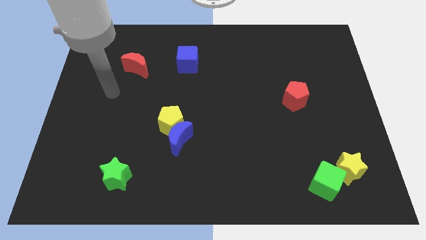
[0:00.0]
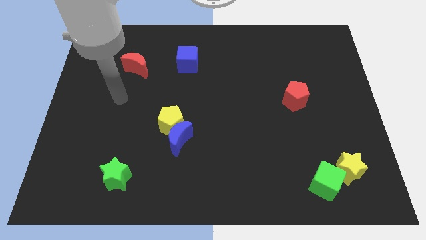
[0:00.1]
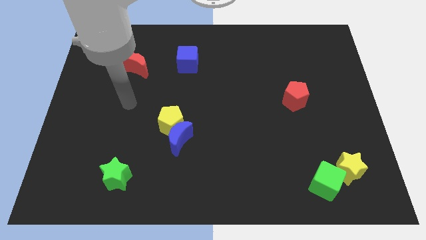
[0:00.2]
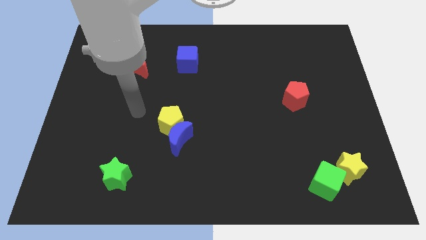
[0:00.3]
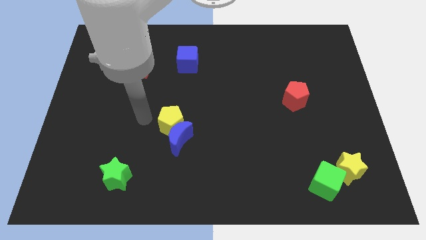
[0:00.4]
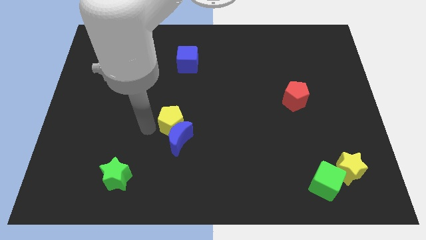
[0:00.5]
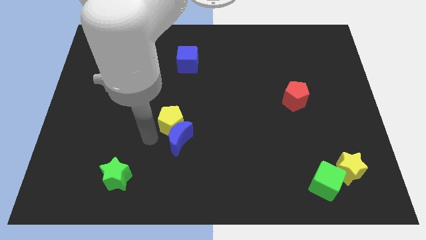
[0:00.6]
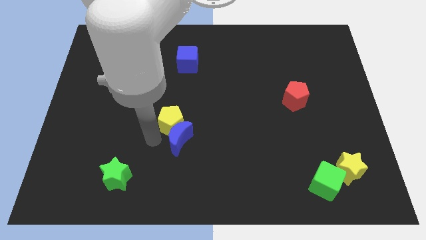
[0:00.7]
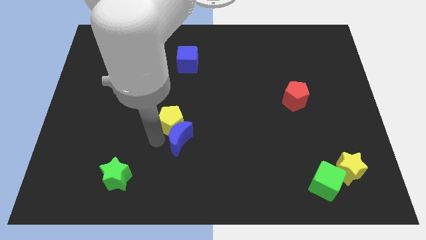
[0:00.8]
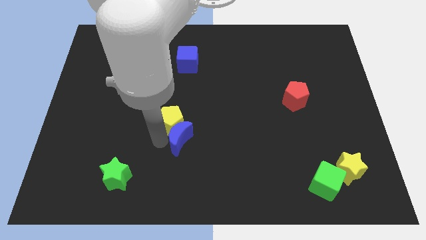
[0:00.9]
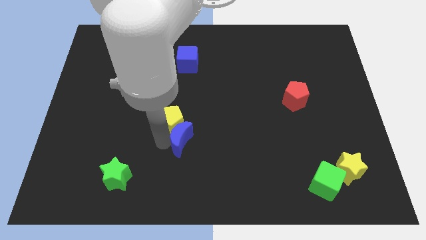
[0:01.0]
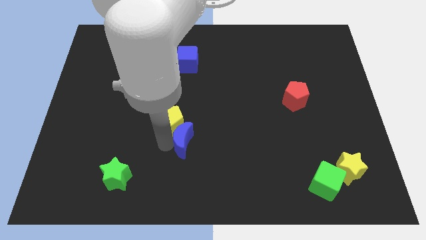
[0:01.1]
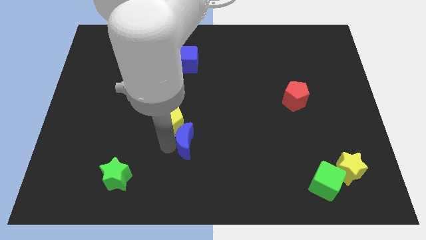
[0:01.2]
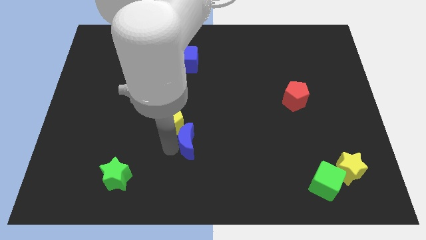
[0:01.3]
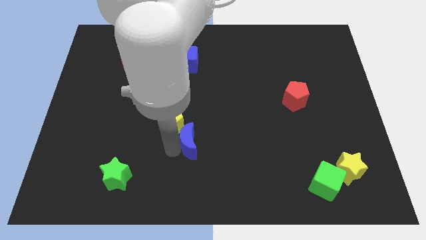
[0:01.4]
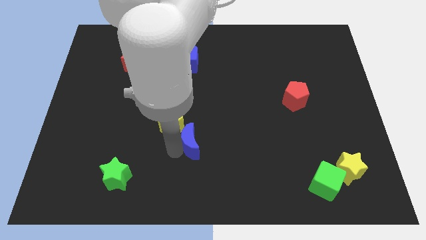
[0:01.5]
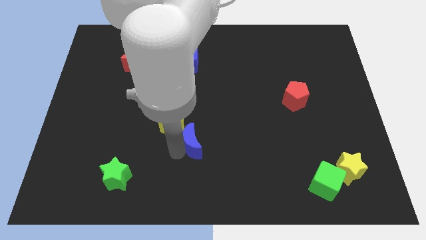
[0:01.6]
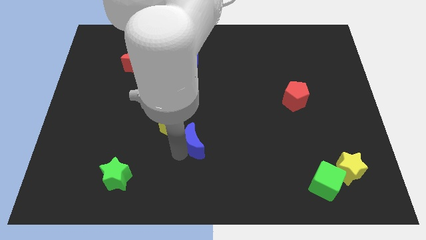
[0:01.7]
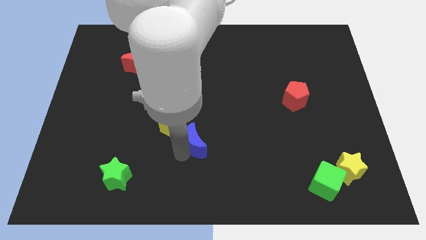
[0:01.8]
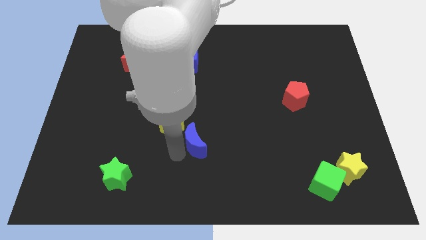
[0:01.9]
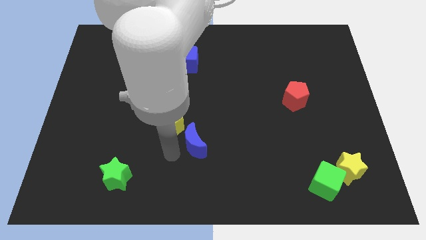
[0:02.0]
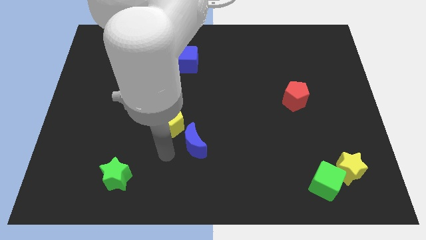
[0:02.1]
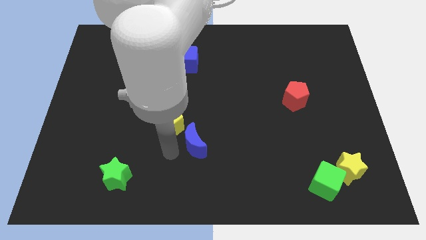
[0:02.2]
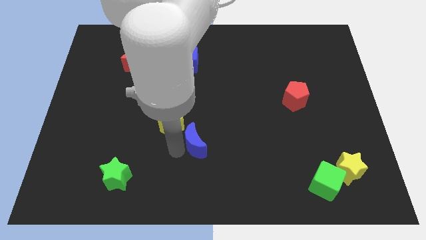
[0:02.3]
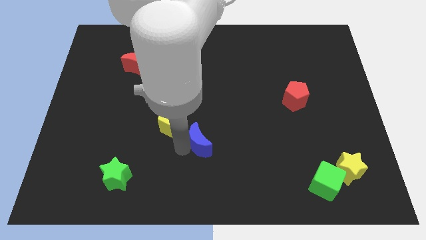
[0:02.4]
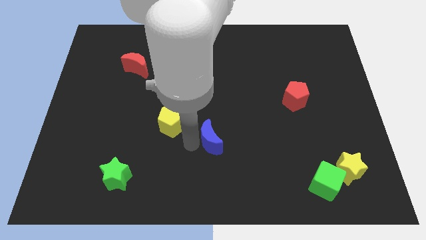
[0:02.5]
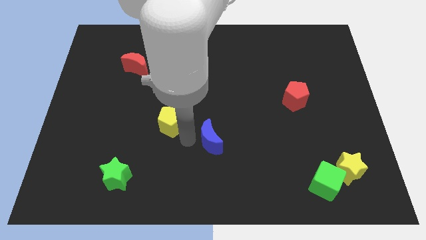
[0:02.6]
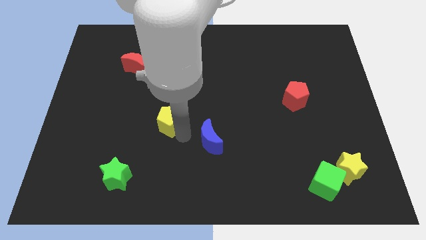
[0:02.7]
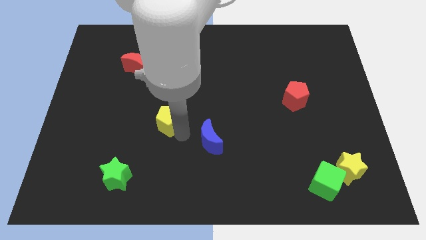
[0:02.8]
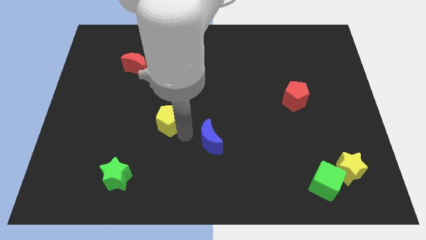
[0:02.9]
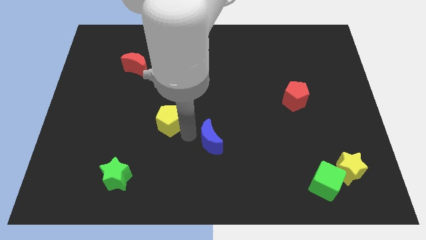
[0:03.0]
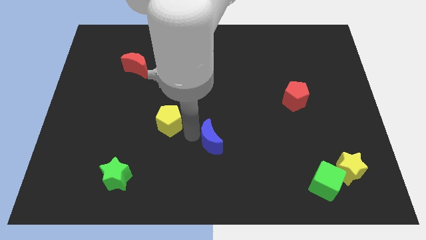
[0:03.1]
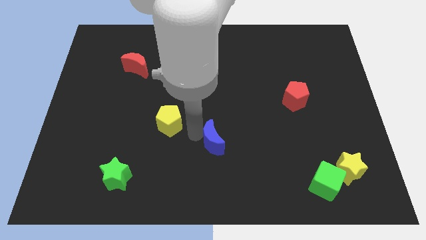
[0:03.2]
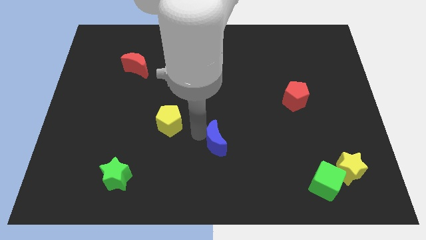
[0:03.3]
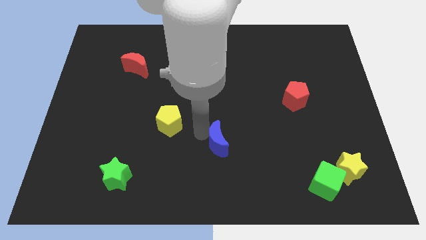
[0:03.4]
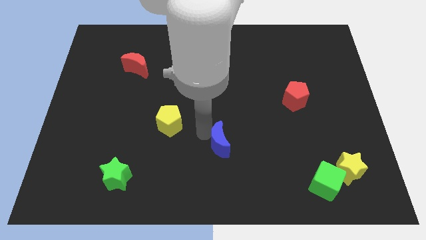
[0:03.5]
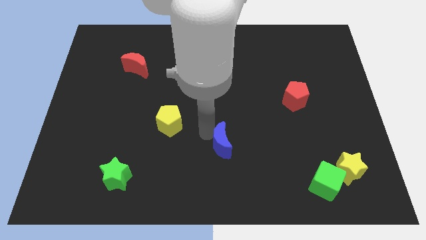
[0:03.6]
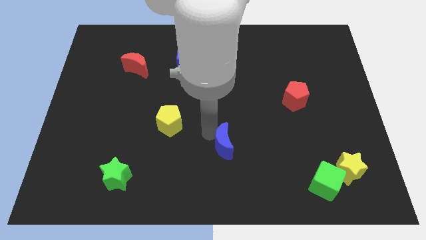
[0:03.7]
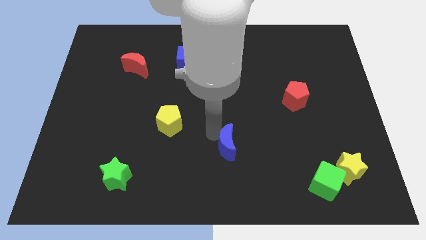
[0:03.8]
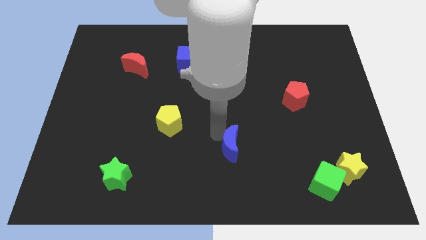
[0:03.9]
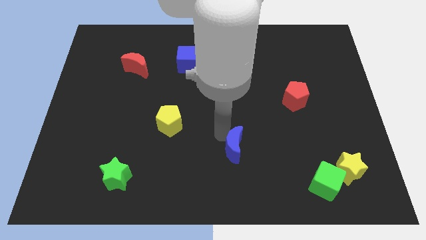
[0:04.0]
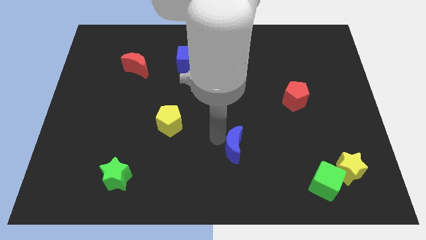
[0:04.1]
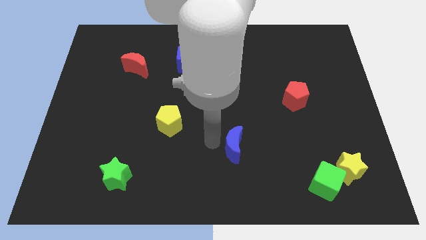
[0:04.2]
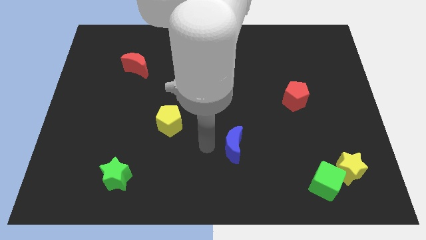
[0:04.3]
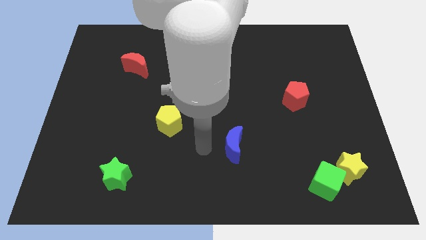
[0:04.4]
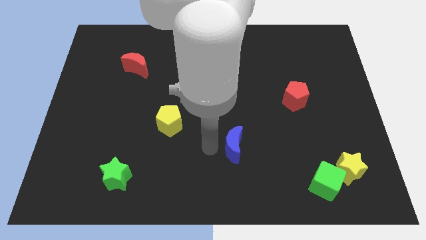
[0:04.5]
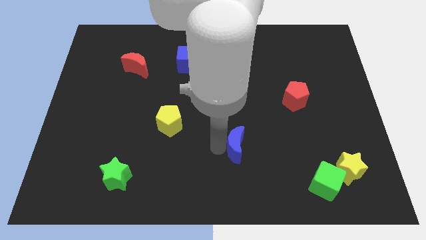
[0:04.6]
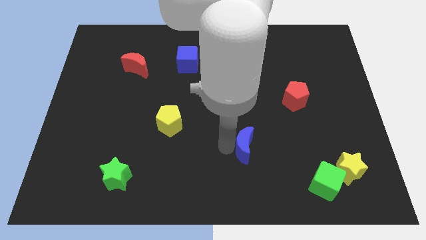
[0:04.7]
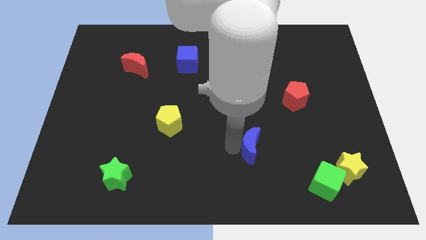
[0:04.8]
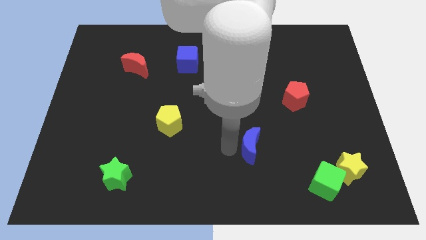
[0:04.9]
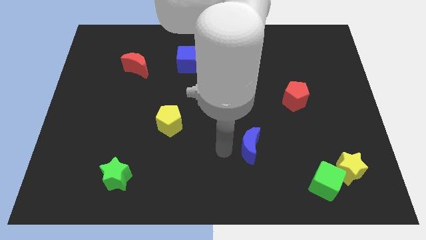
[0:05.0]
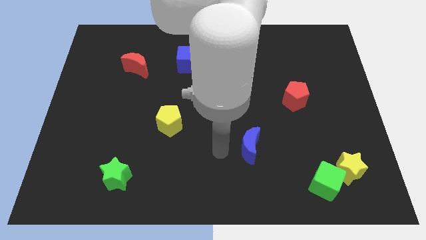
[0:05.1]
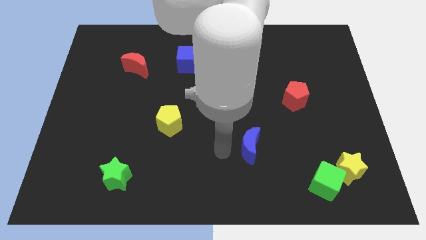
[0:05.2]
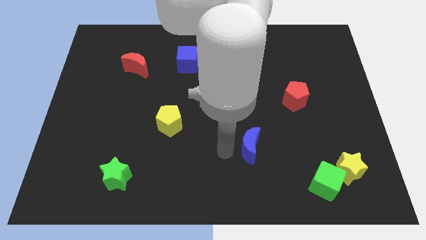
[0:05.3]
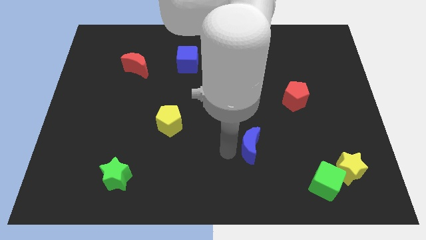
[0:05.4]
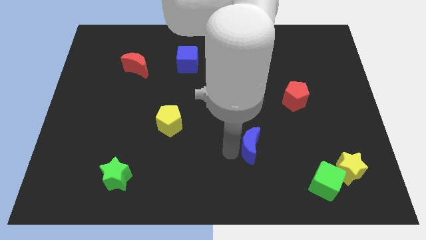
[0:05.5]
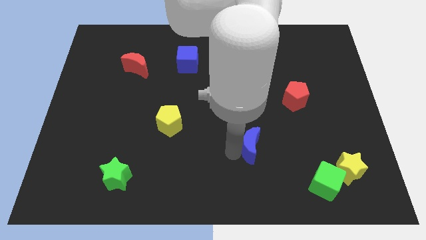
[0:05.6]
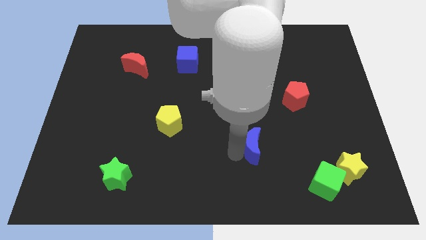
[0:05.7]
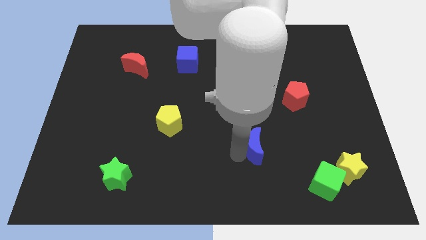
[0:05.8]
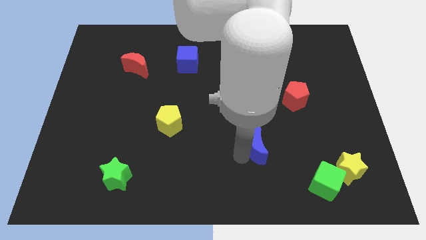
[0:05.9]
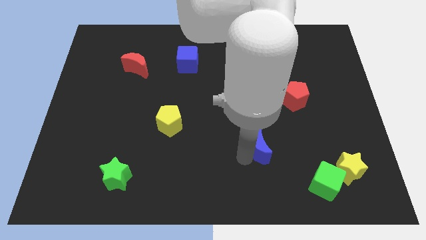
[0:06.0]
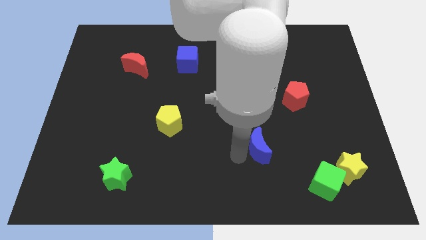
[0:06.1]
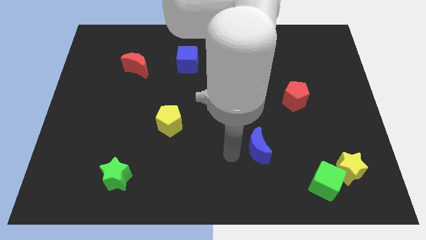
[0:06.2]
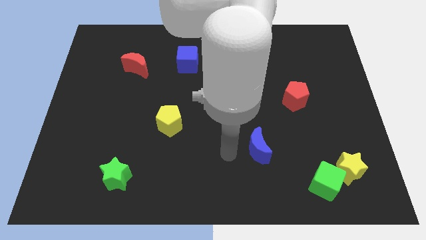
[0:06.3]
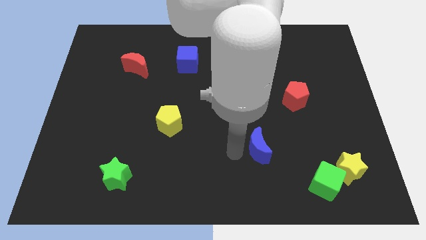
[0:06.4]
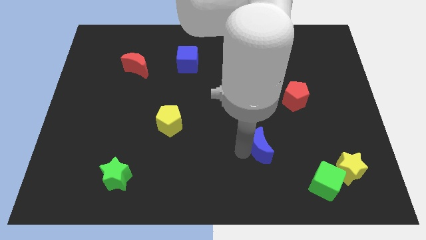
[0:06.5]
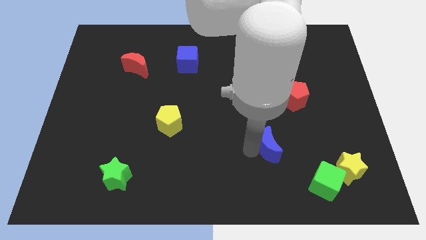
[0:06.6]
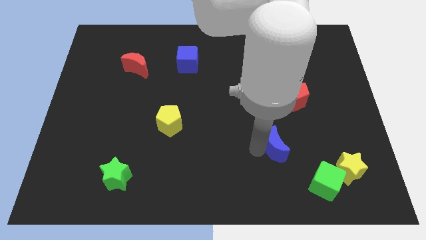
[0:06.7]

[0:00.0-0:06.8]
push the blue moon right

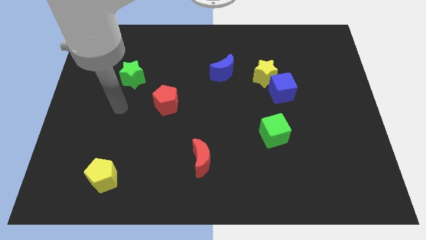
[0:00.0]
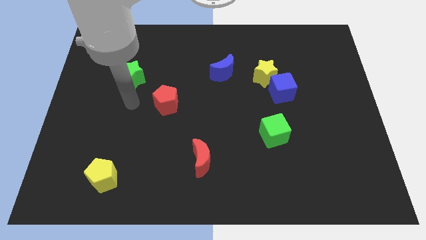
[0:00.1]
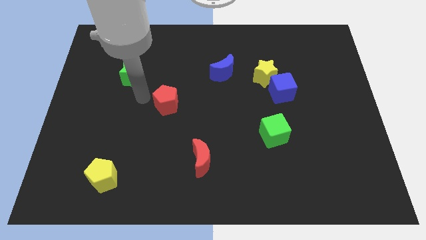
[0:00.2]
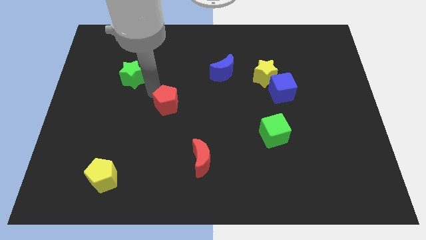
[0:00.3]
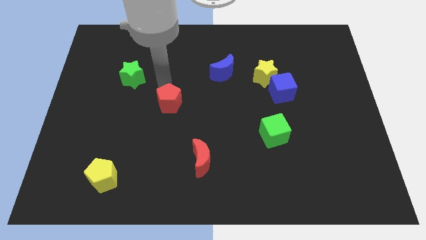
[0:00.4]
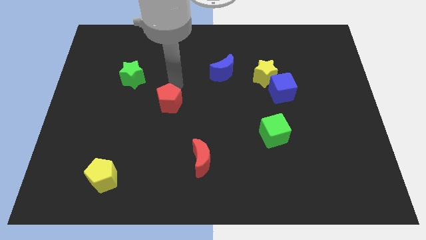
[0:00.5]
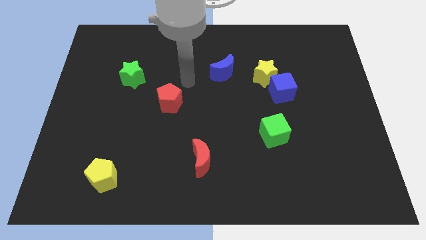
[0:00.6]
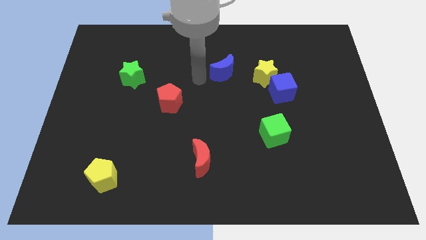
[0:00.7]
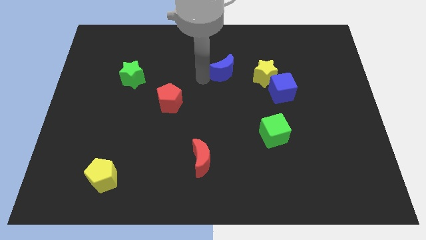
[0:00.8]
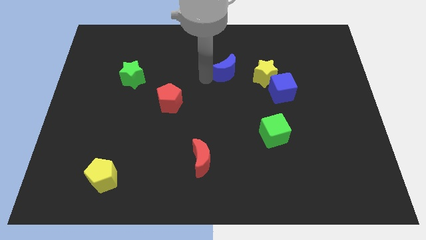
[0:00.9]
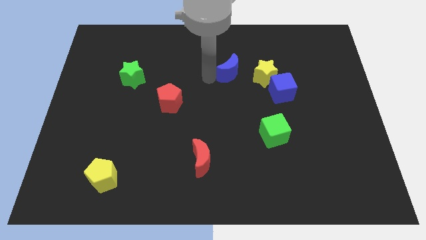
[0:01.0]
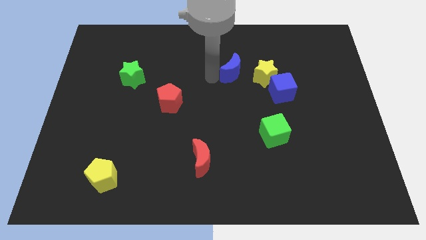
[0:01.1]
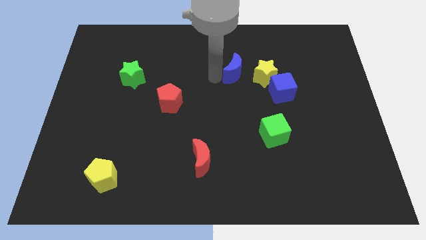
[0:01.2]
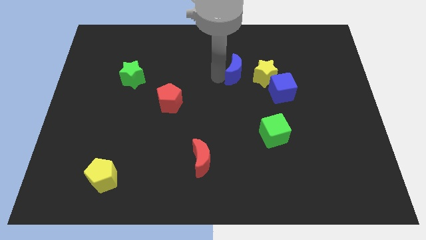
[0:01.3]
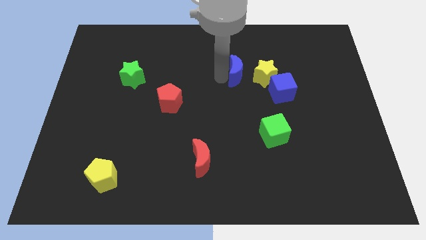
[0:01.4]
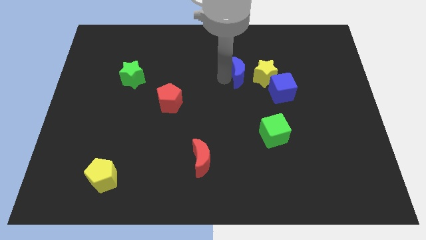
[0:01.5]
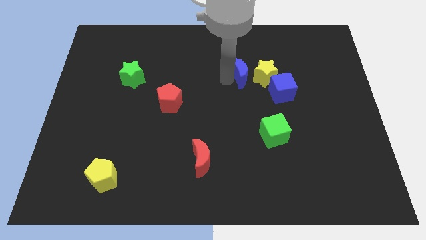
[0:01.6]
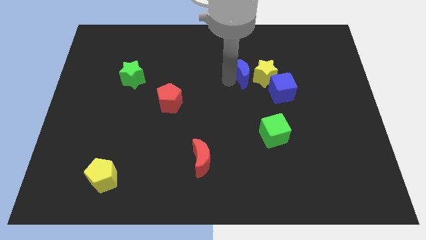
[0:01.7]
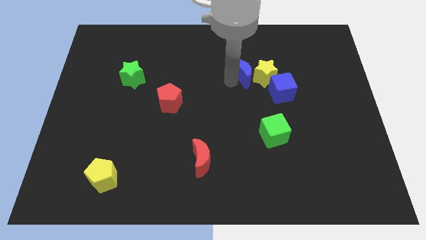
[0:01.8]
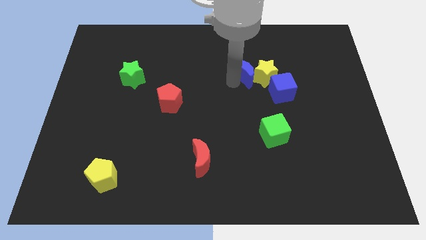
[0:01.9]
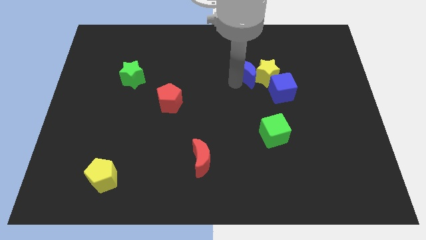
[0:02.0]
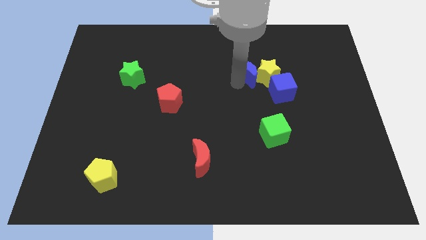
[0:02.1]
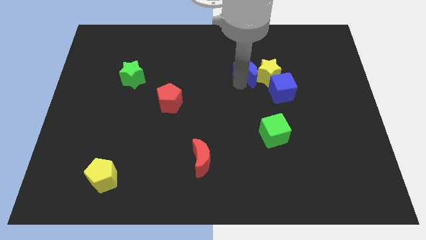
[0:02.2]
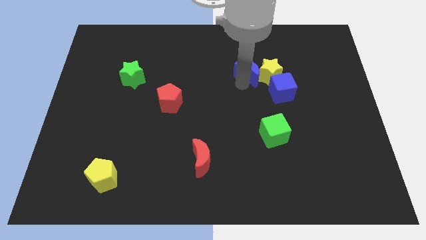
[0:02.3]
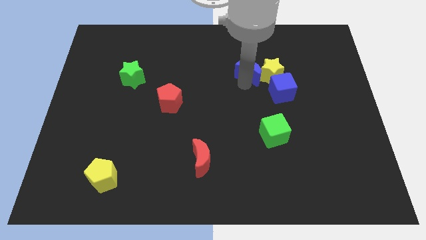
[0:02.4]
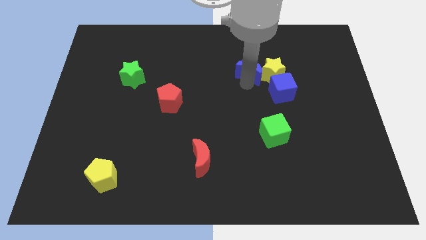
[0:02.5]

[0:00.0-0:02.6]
slightly move the blue moon right
